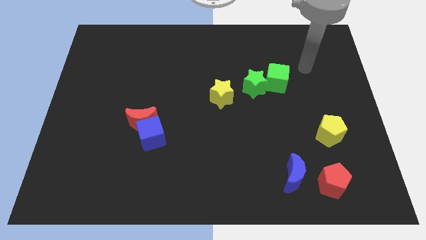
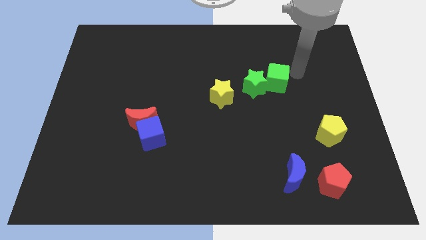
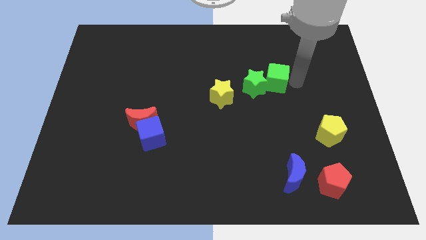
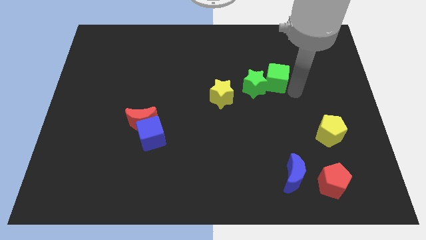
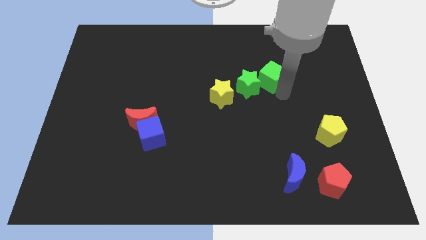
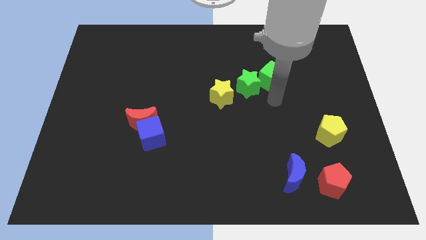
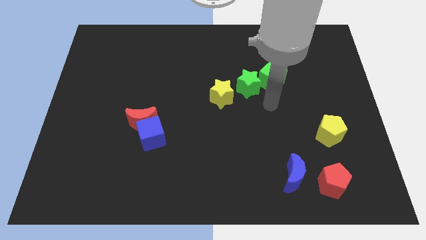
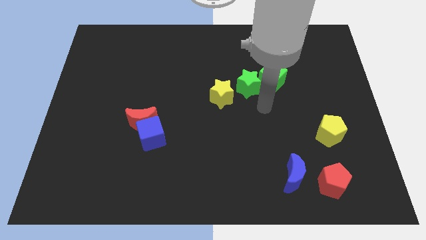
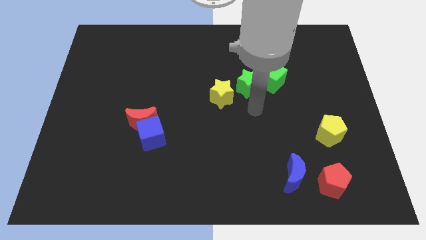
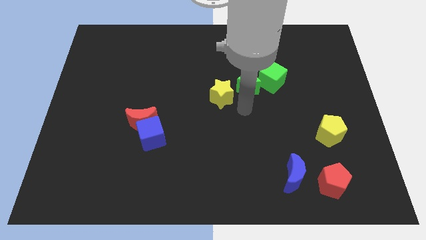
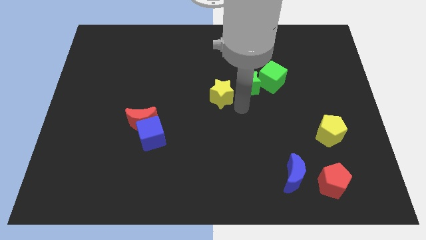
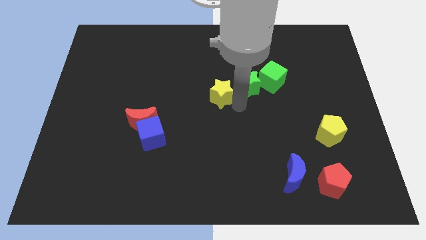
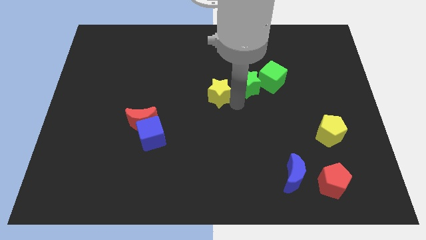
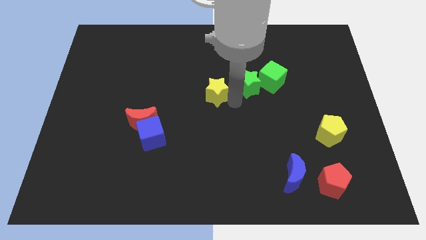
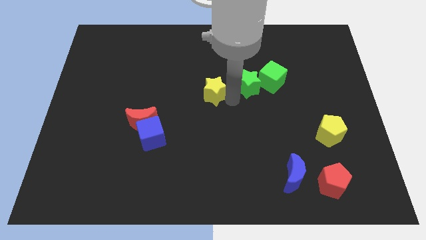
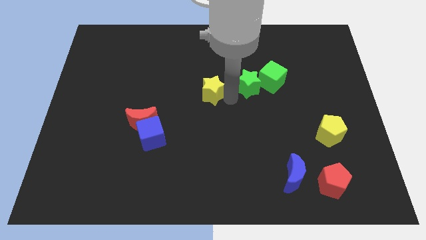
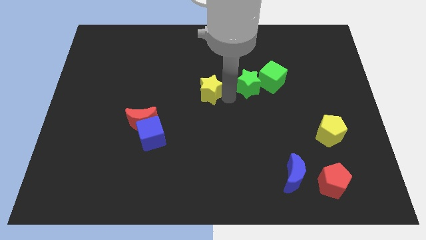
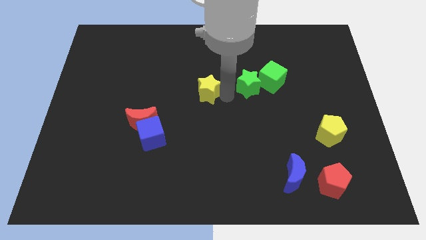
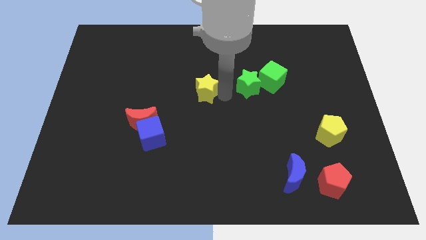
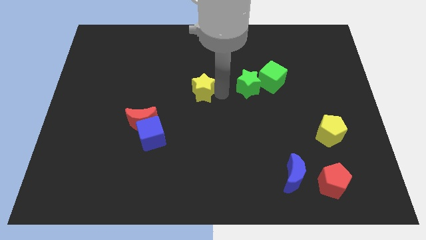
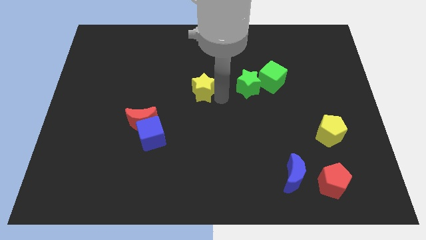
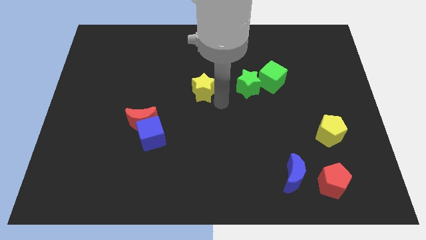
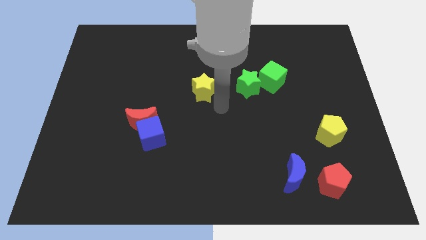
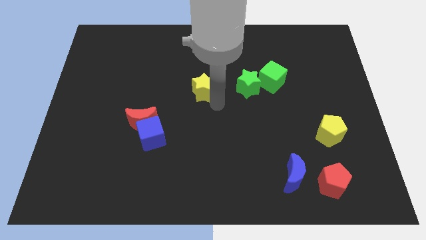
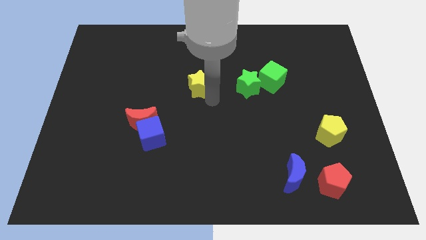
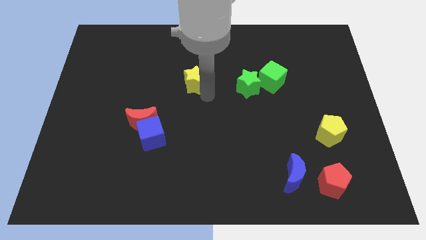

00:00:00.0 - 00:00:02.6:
push the yellow star slightly diagonally up and left

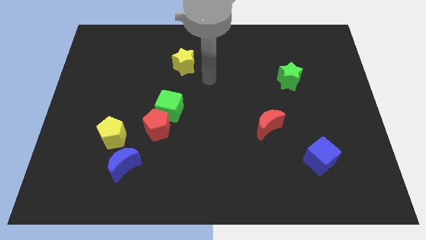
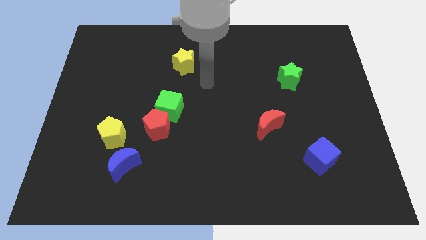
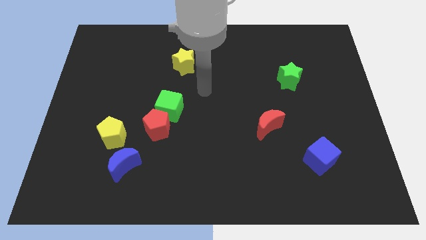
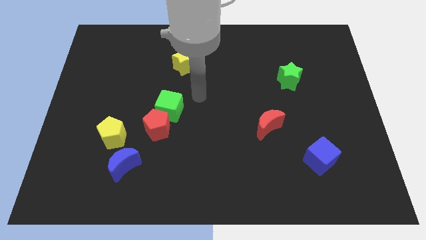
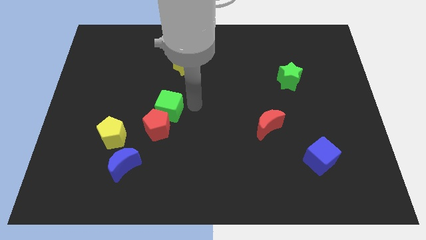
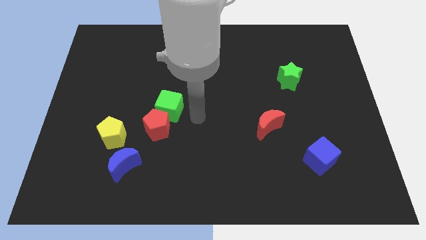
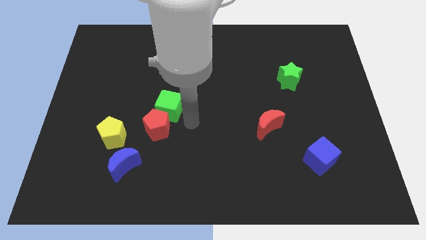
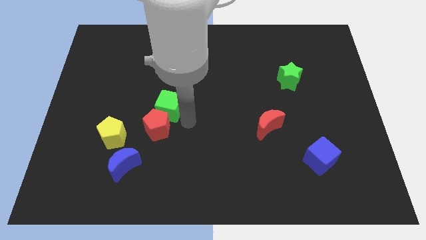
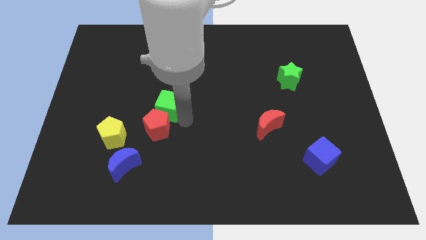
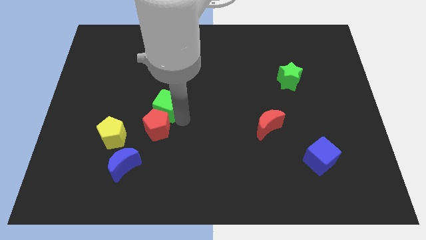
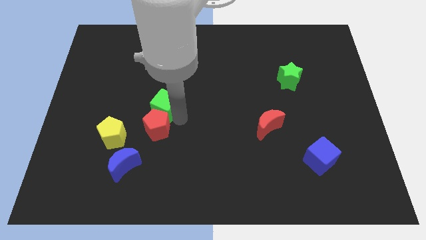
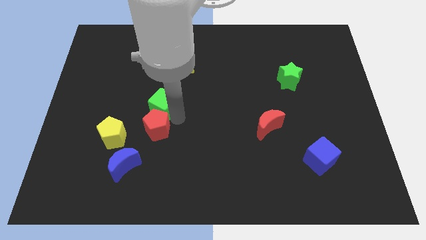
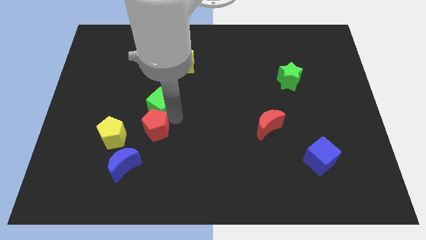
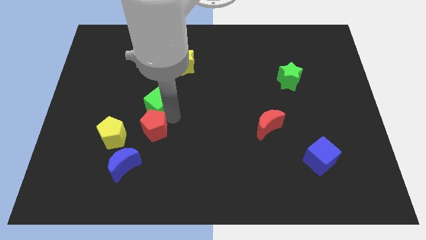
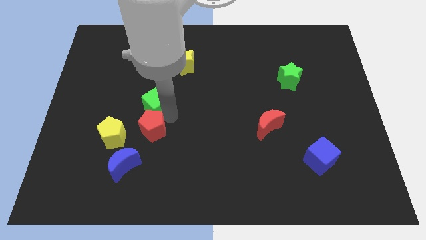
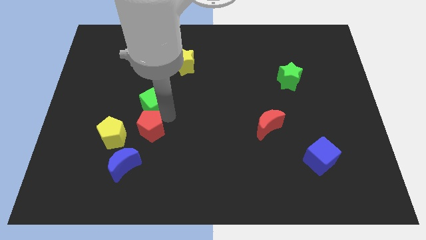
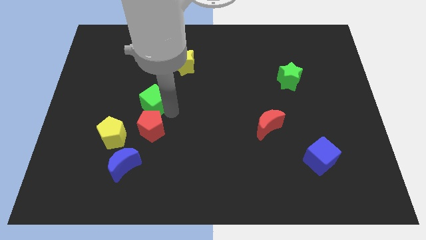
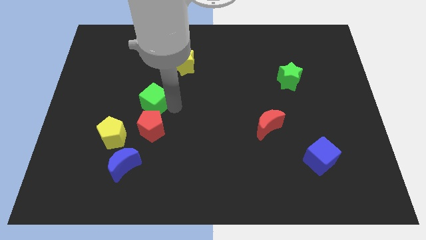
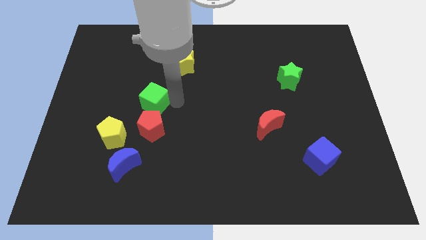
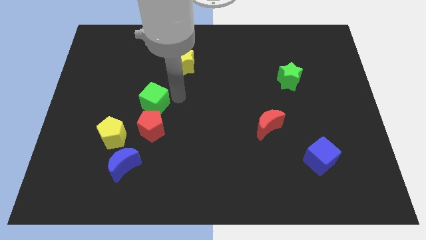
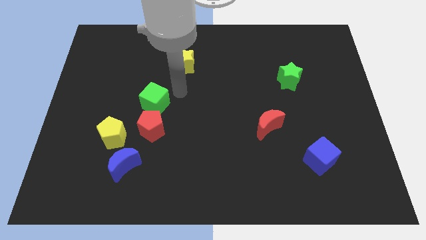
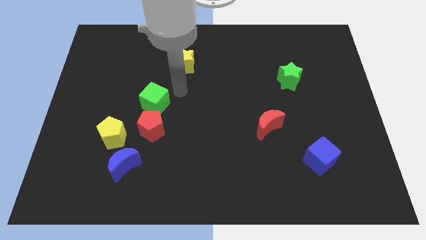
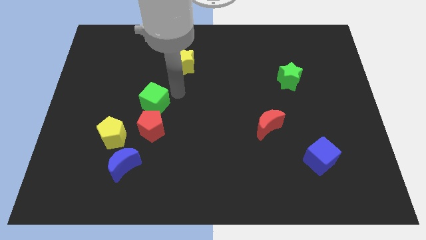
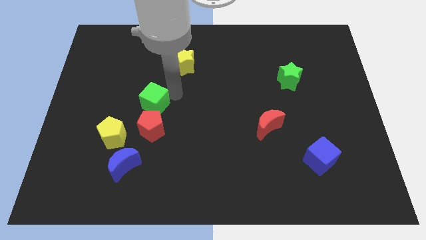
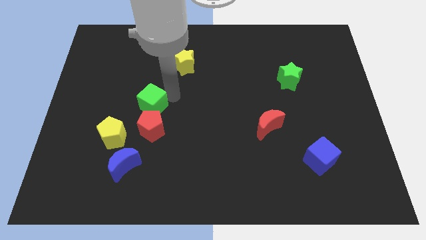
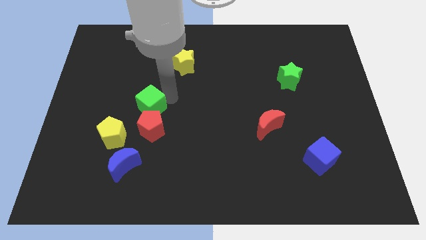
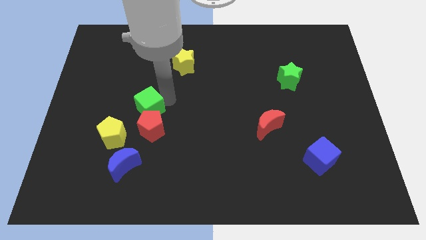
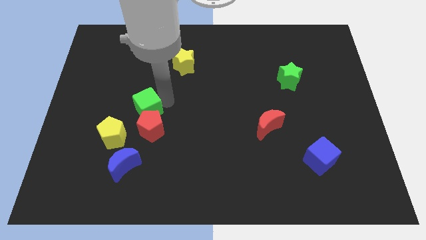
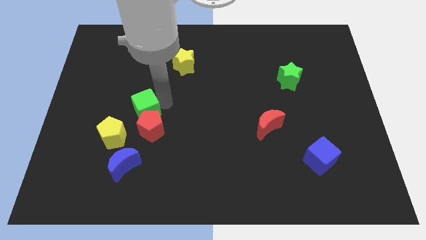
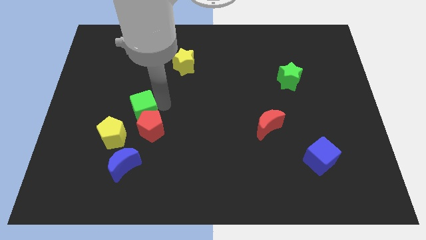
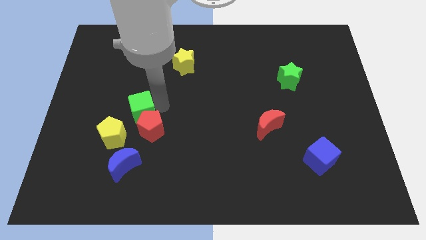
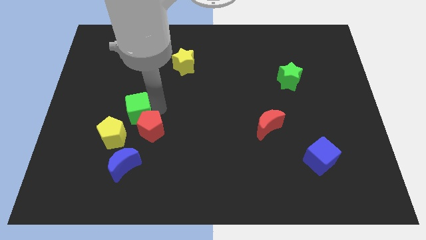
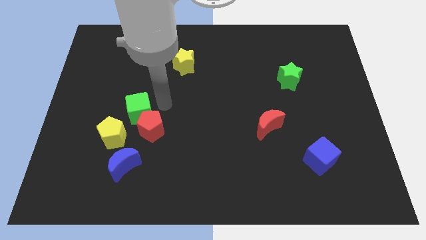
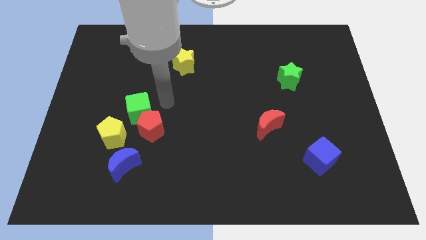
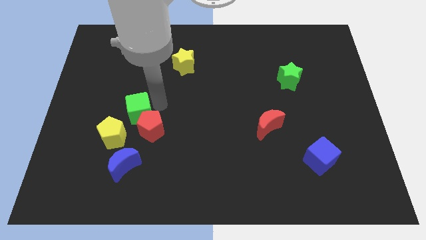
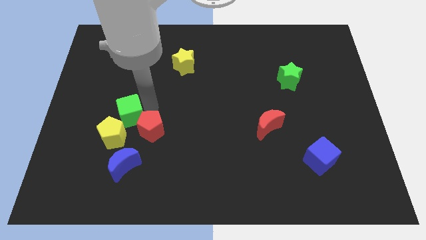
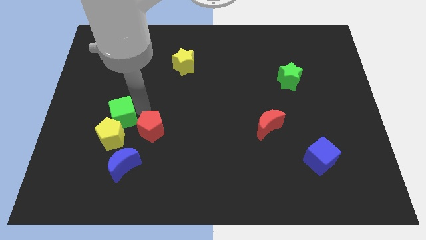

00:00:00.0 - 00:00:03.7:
slide the green cube diagonally down and to the left a bit

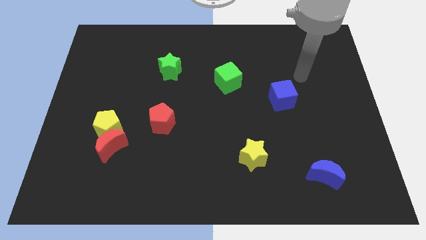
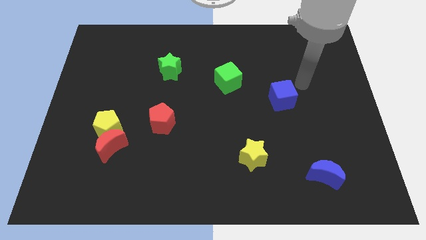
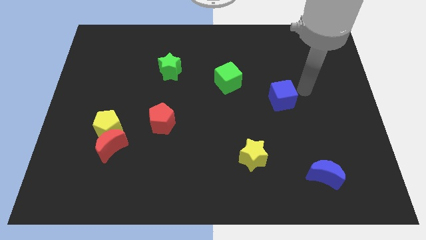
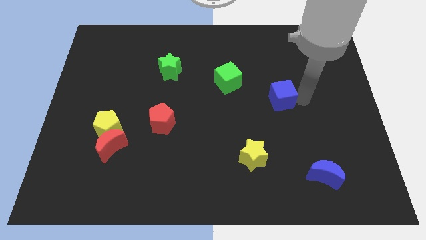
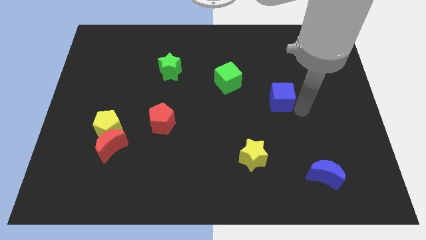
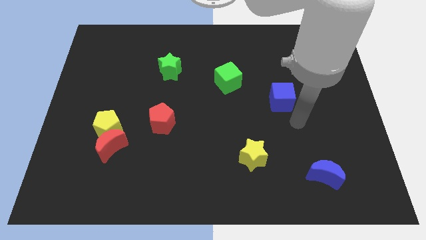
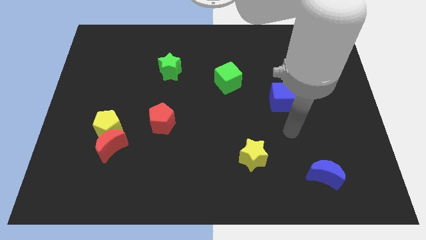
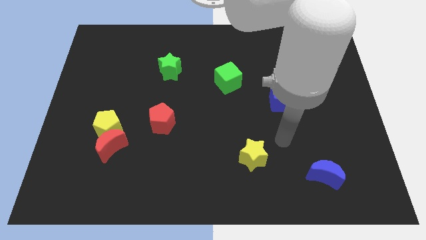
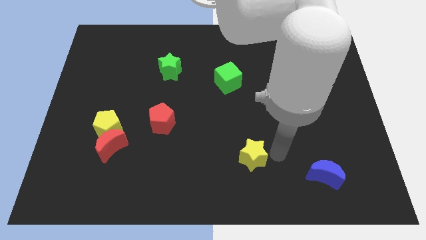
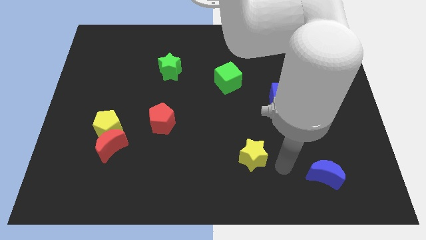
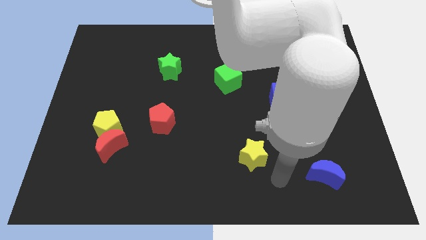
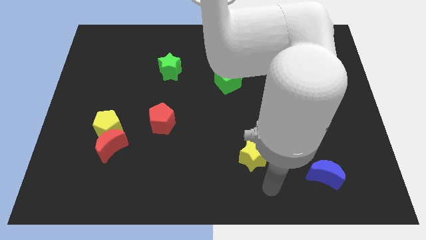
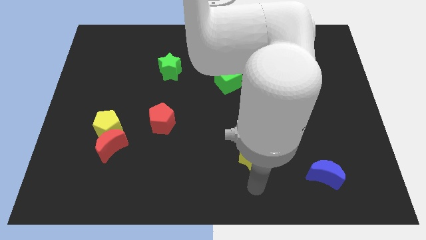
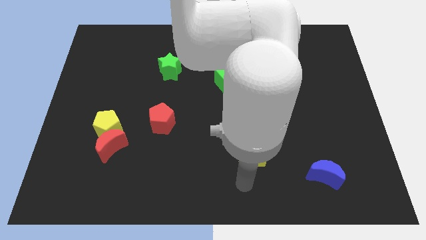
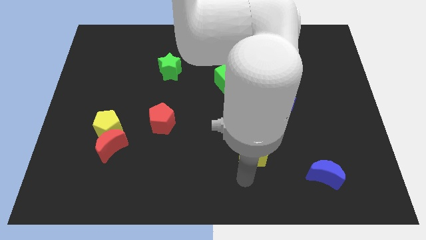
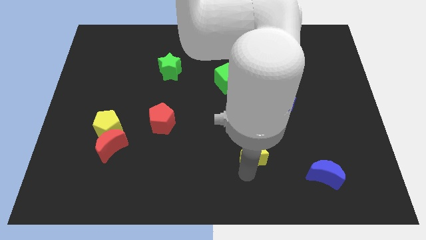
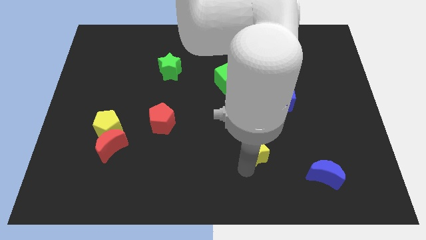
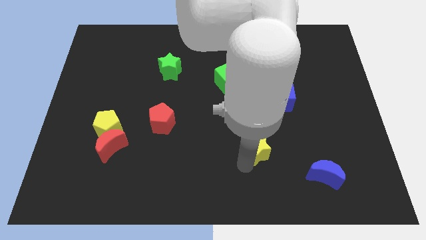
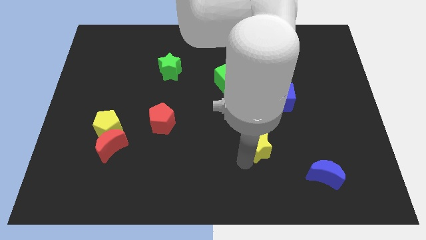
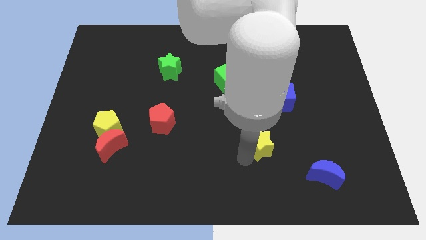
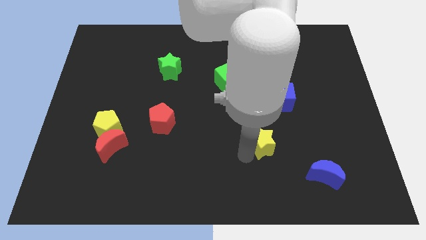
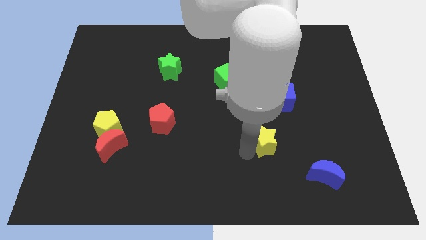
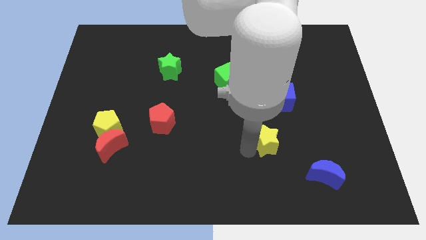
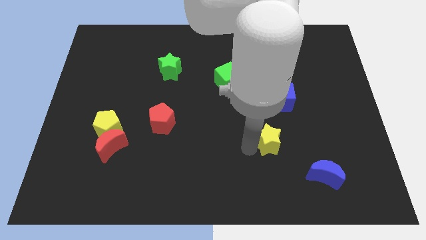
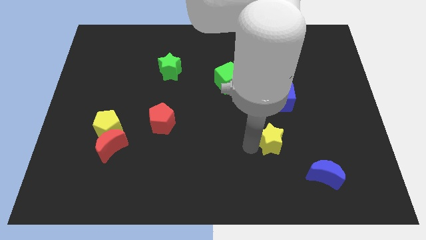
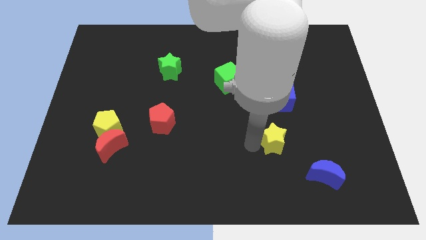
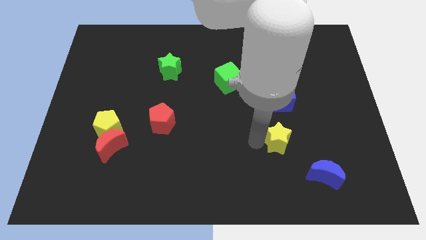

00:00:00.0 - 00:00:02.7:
move the yellow star diagonally upwards and to the right a little bit
